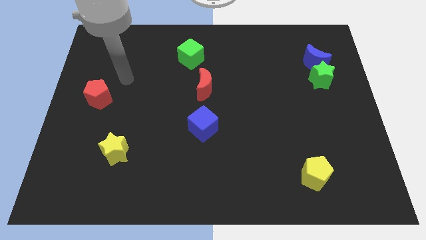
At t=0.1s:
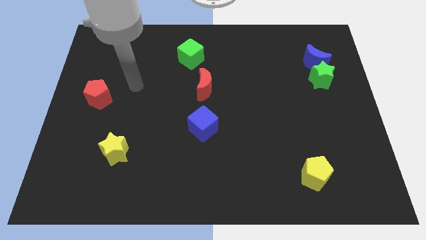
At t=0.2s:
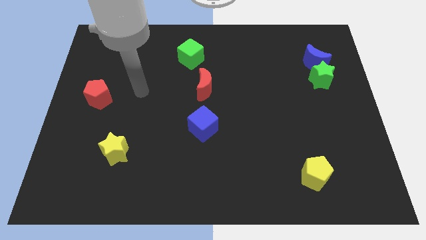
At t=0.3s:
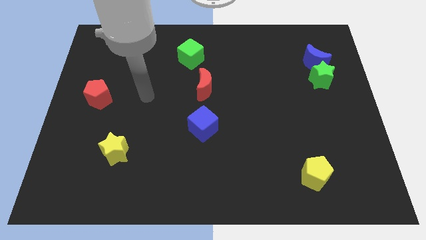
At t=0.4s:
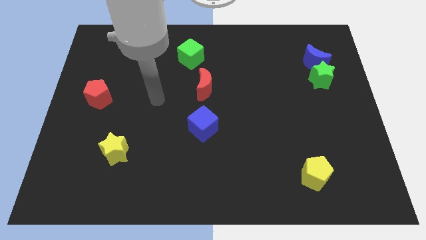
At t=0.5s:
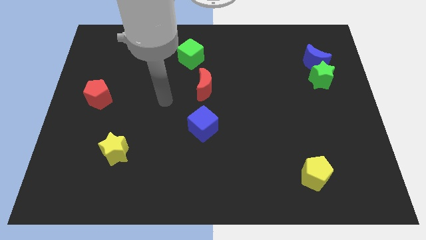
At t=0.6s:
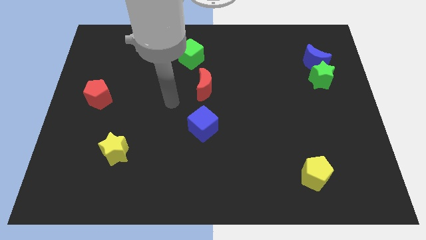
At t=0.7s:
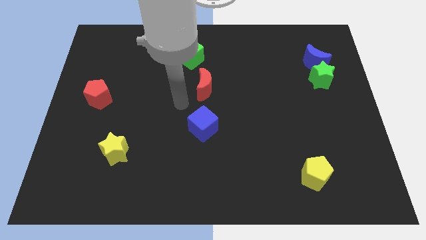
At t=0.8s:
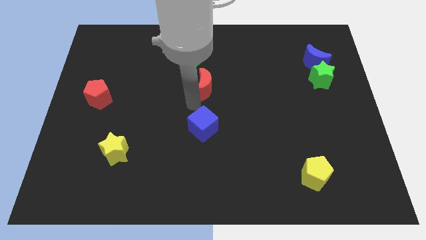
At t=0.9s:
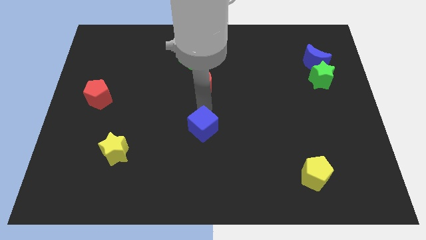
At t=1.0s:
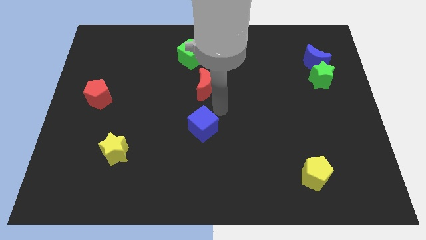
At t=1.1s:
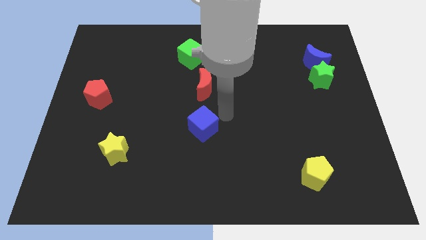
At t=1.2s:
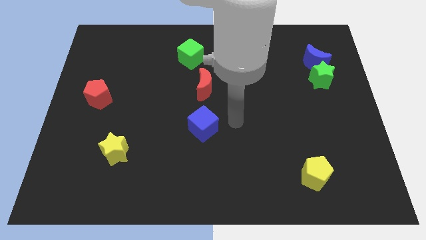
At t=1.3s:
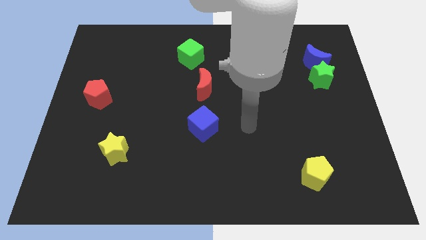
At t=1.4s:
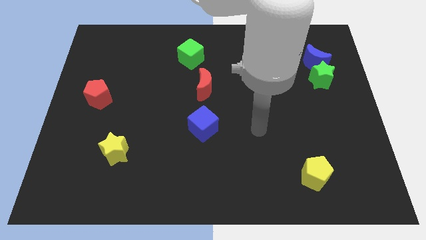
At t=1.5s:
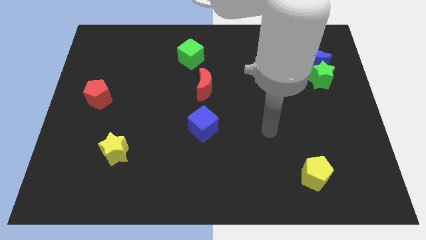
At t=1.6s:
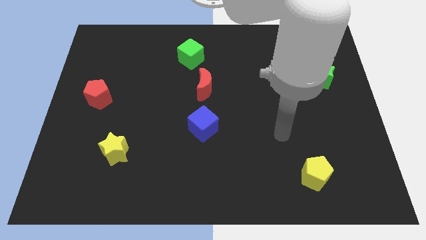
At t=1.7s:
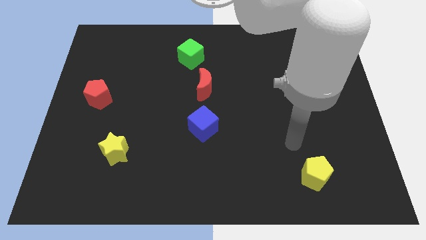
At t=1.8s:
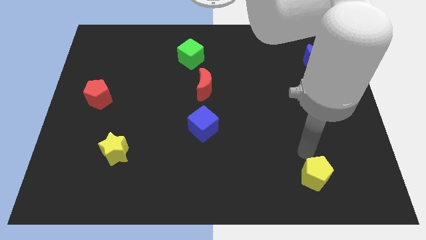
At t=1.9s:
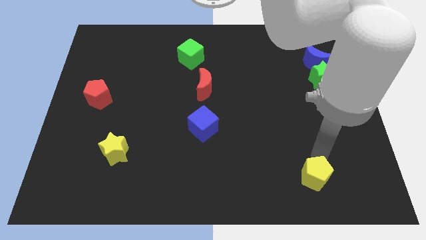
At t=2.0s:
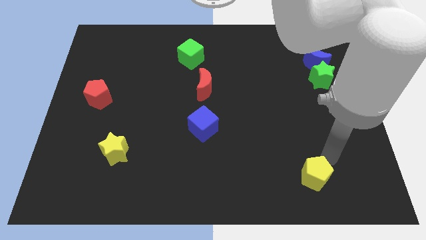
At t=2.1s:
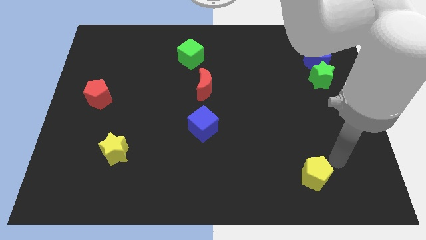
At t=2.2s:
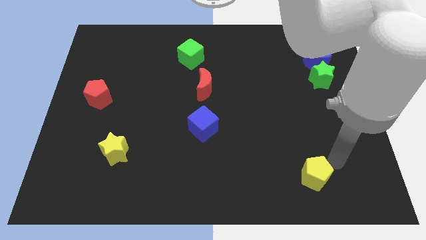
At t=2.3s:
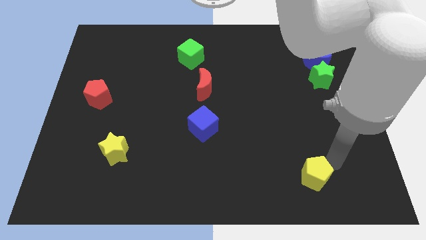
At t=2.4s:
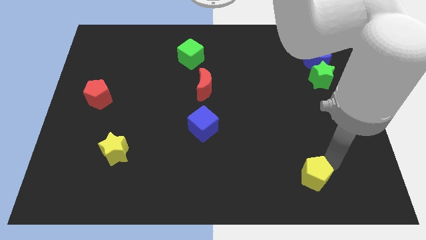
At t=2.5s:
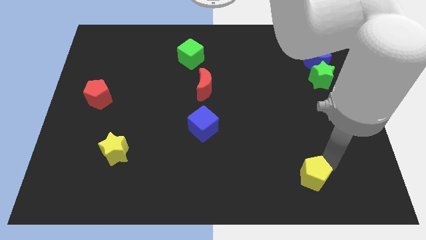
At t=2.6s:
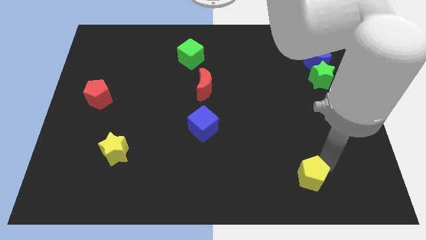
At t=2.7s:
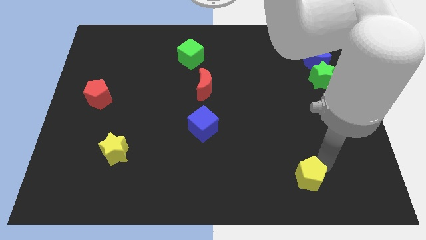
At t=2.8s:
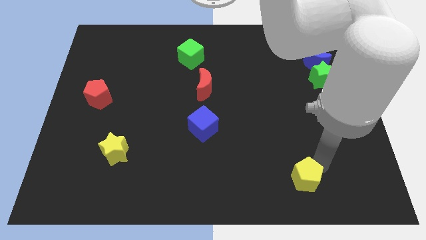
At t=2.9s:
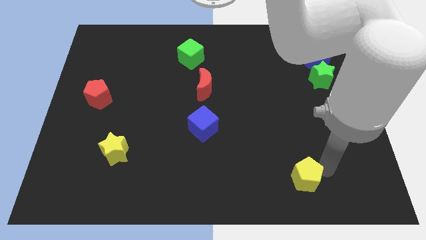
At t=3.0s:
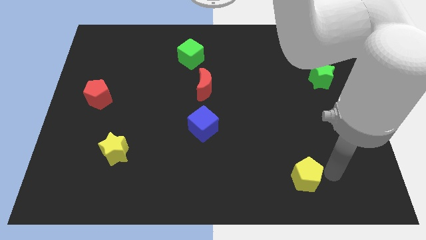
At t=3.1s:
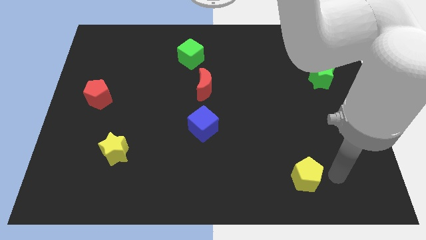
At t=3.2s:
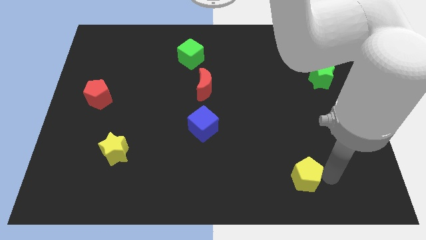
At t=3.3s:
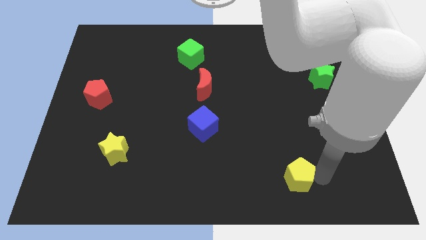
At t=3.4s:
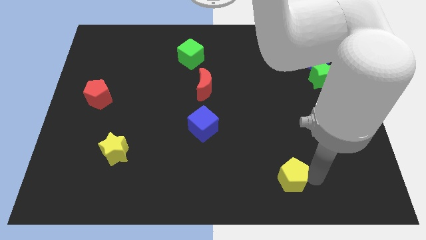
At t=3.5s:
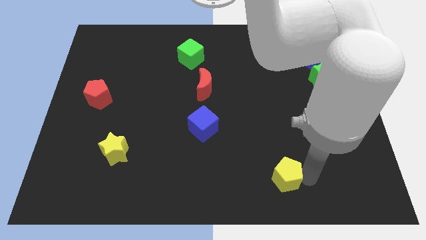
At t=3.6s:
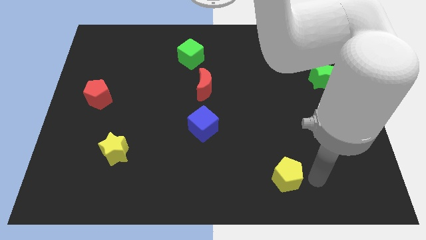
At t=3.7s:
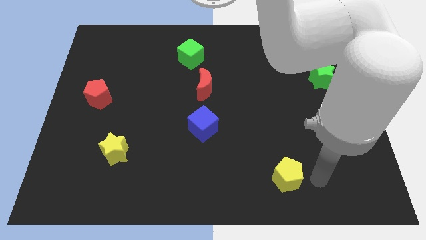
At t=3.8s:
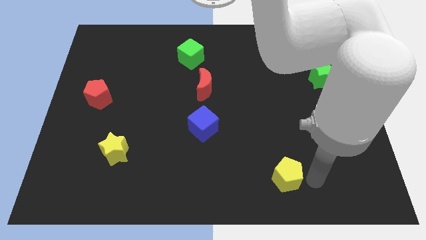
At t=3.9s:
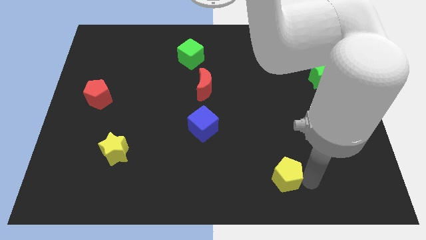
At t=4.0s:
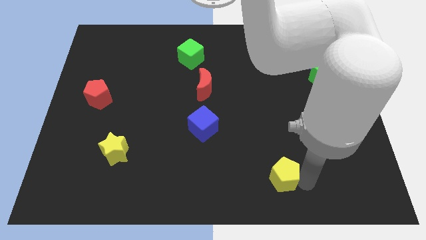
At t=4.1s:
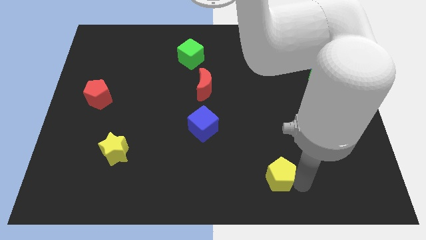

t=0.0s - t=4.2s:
move the yellow pentagon left slightly

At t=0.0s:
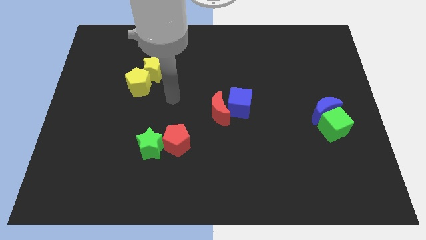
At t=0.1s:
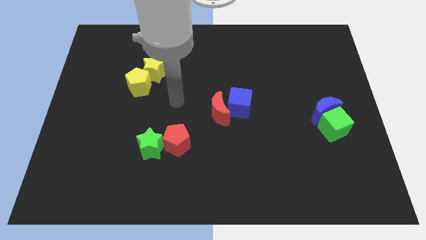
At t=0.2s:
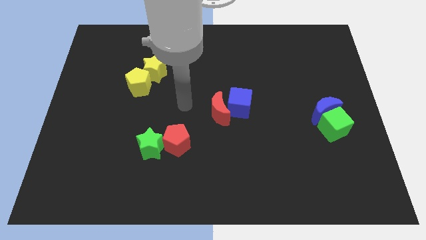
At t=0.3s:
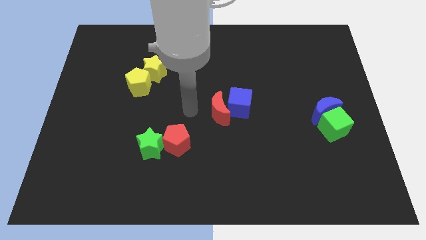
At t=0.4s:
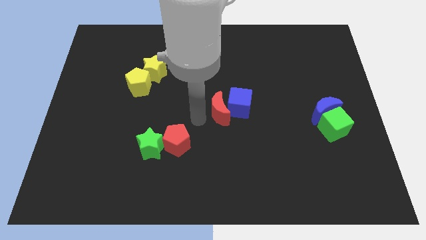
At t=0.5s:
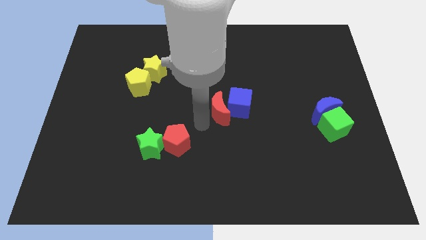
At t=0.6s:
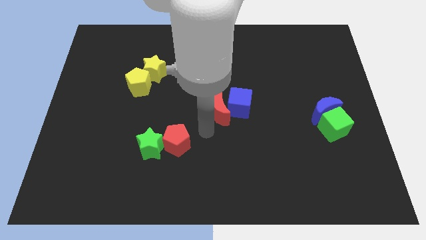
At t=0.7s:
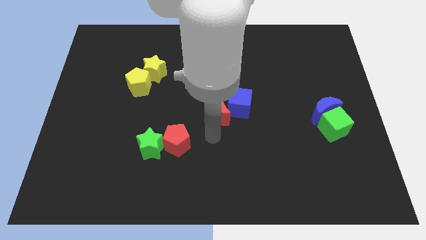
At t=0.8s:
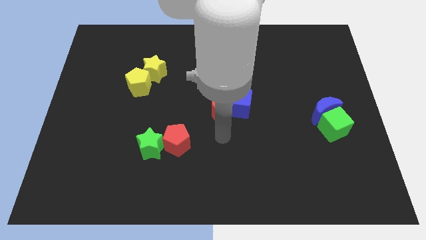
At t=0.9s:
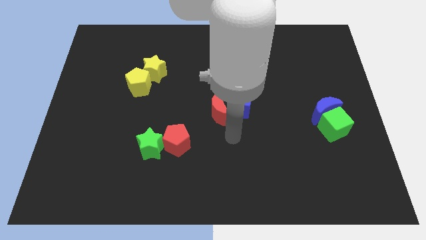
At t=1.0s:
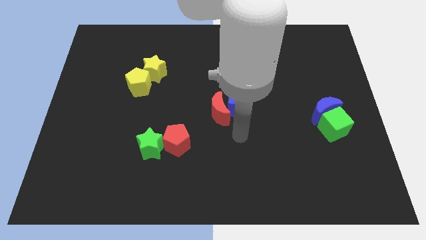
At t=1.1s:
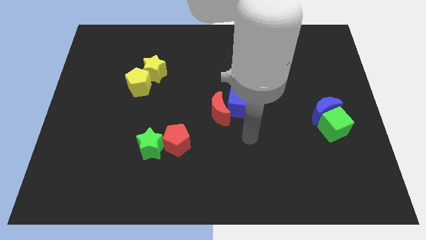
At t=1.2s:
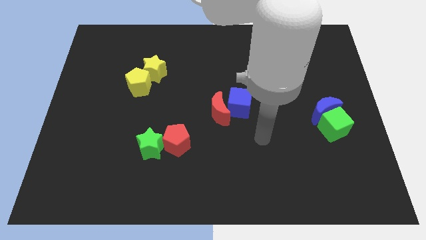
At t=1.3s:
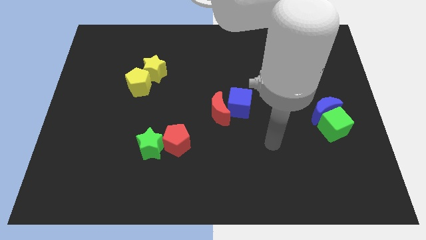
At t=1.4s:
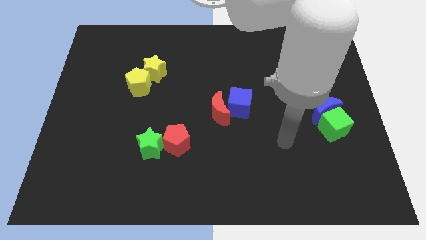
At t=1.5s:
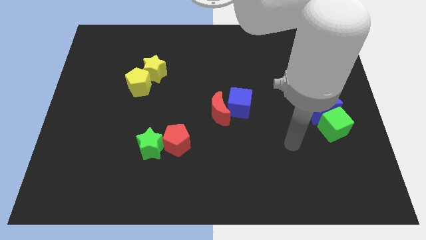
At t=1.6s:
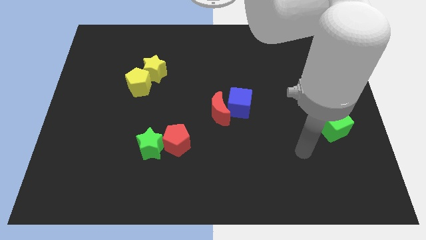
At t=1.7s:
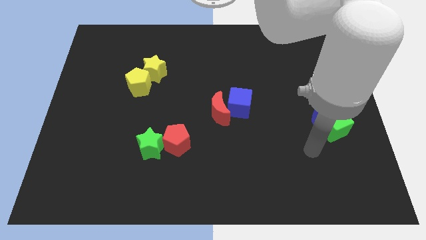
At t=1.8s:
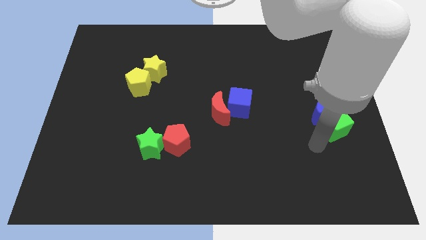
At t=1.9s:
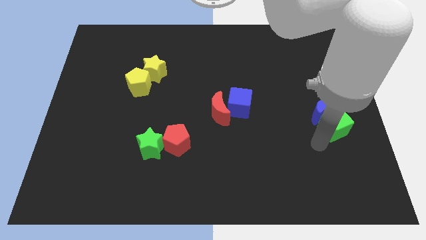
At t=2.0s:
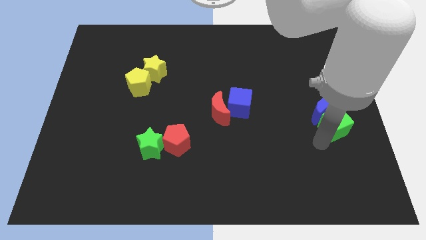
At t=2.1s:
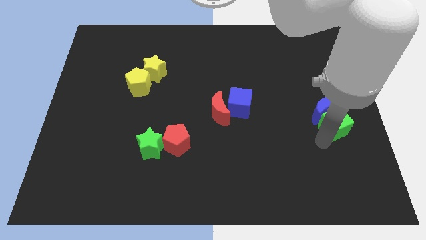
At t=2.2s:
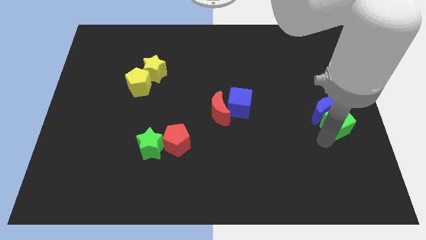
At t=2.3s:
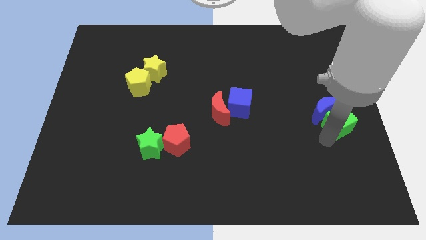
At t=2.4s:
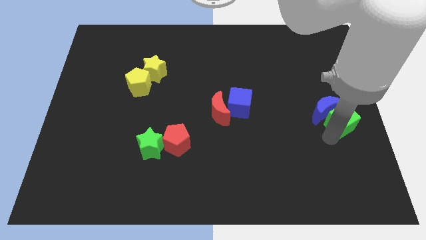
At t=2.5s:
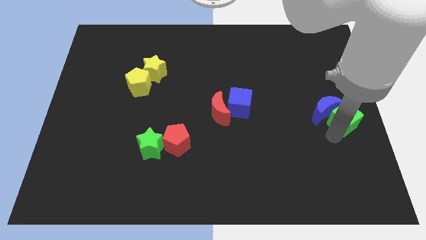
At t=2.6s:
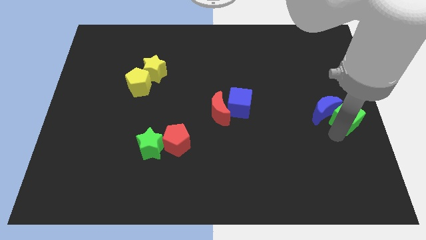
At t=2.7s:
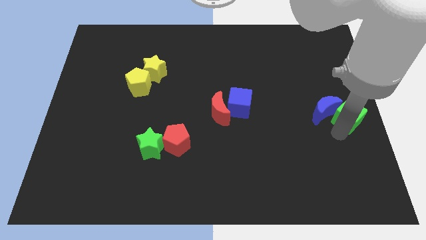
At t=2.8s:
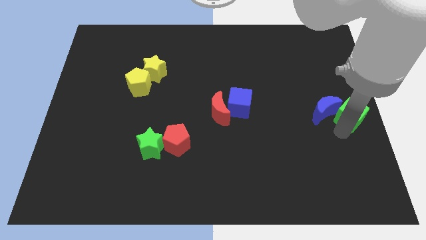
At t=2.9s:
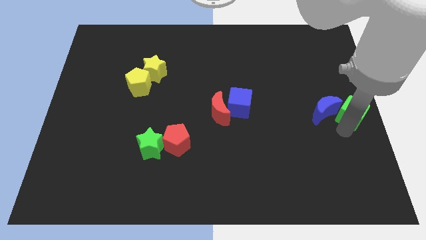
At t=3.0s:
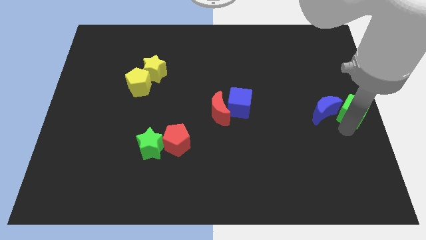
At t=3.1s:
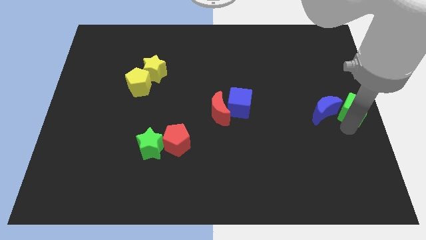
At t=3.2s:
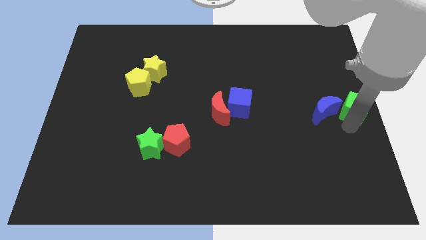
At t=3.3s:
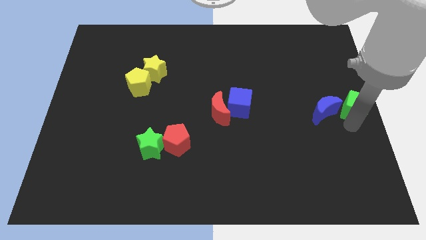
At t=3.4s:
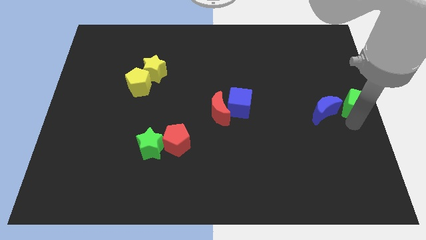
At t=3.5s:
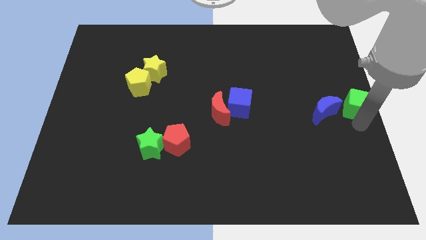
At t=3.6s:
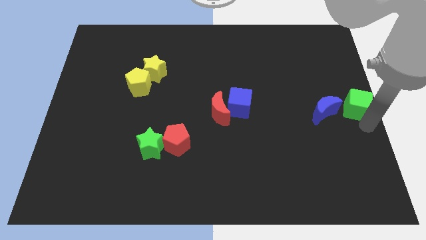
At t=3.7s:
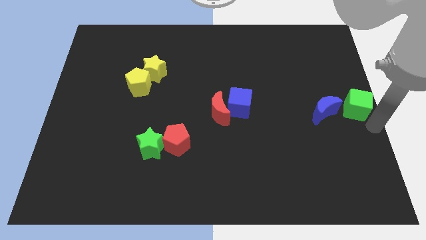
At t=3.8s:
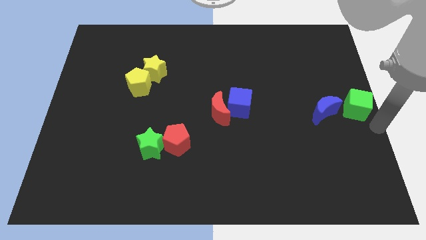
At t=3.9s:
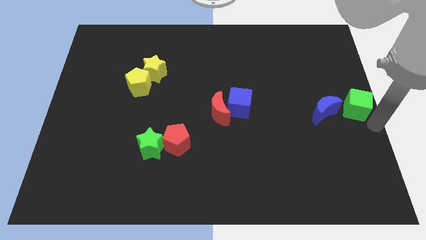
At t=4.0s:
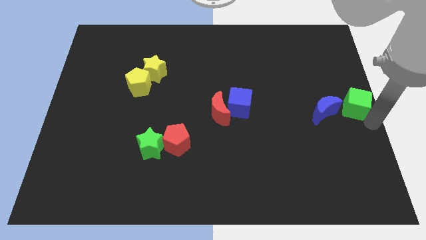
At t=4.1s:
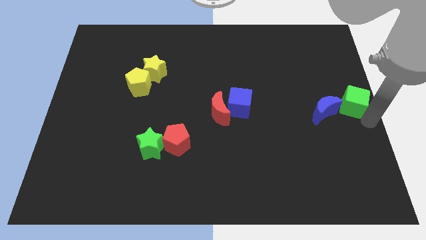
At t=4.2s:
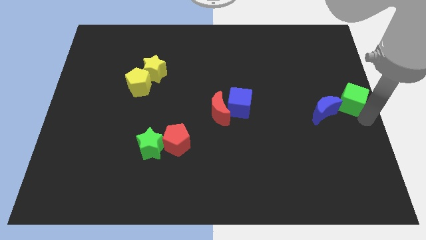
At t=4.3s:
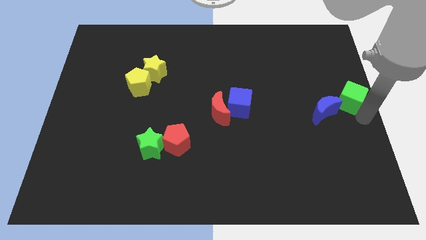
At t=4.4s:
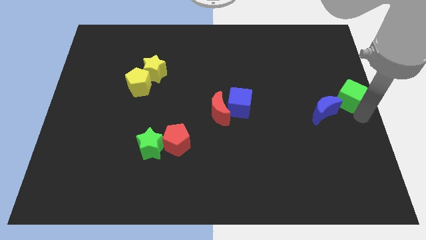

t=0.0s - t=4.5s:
slightly push the green cube up
